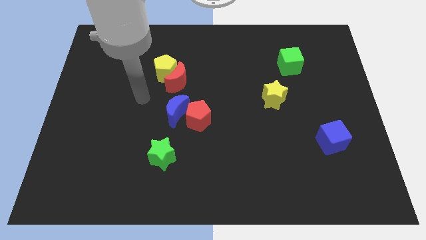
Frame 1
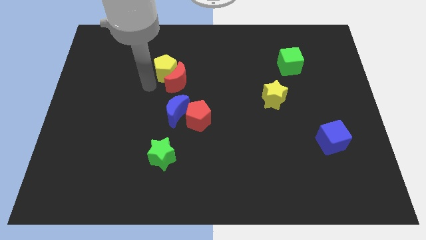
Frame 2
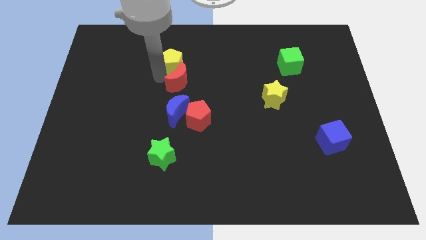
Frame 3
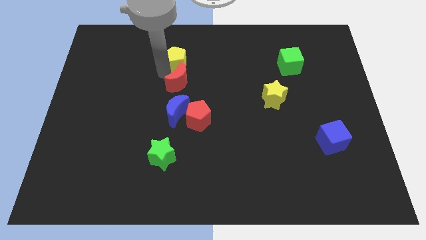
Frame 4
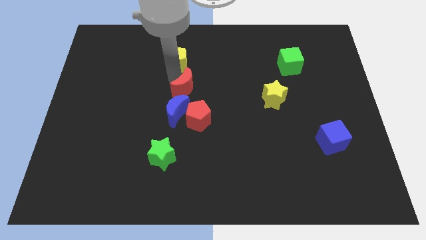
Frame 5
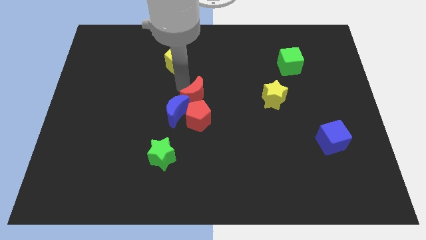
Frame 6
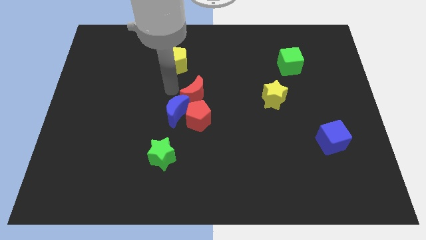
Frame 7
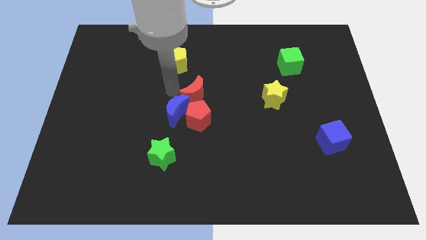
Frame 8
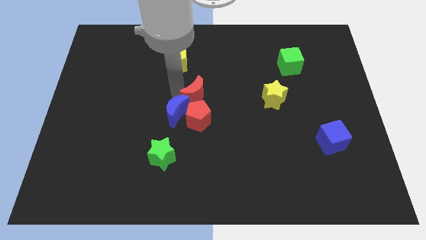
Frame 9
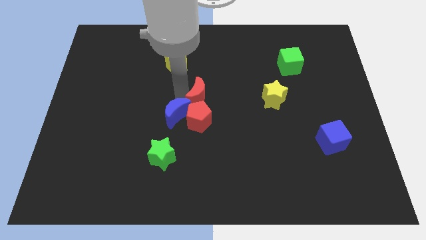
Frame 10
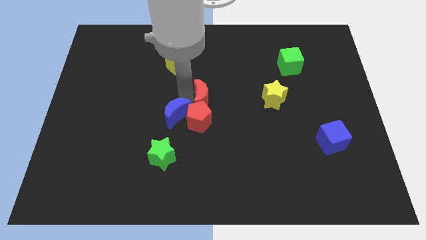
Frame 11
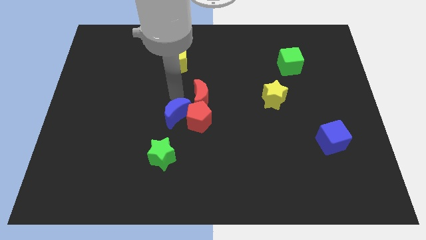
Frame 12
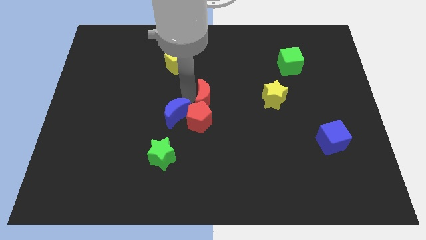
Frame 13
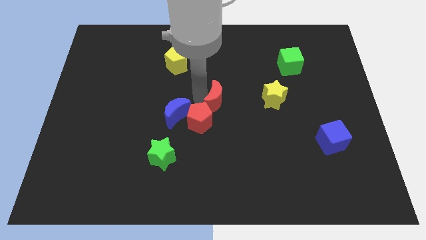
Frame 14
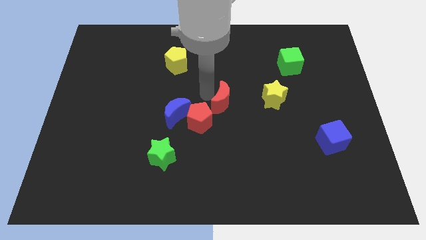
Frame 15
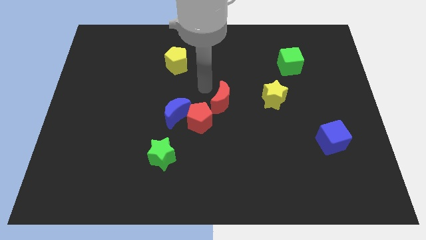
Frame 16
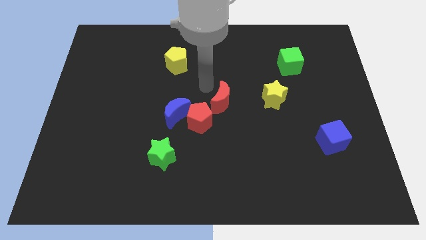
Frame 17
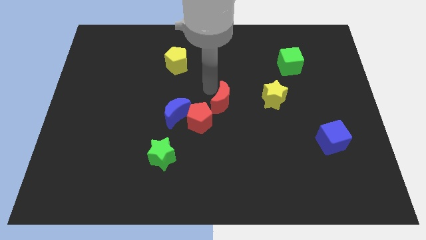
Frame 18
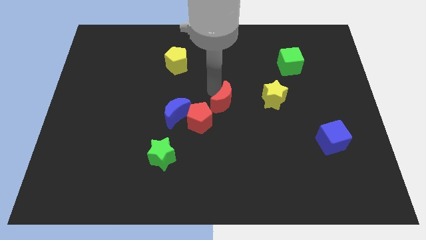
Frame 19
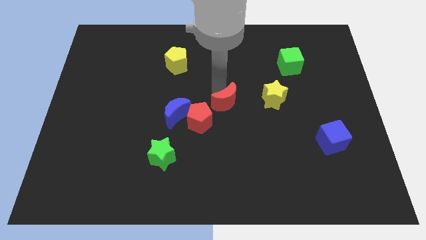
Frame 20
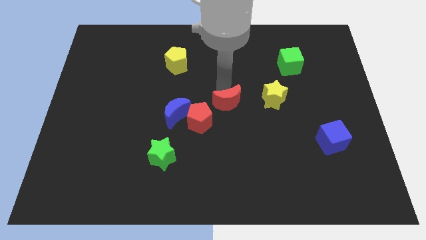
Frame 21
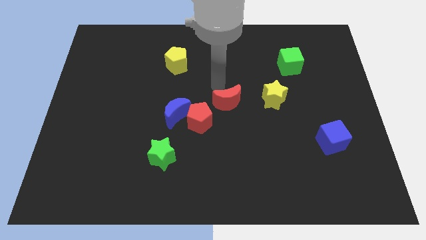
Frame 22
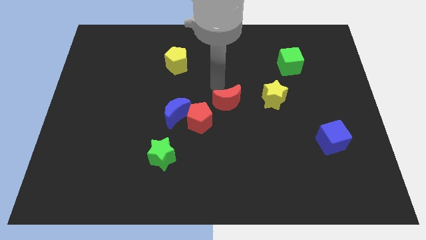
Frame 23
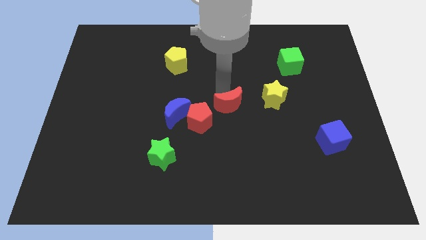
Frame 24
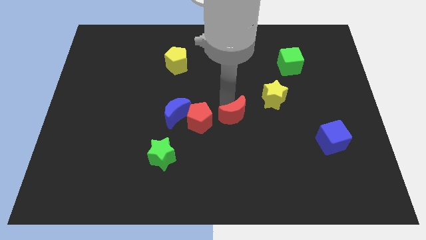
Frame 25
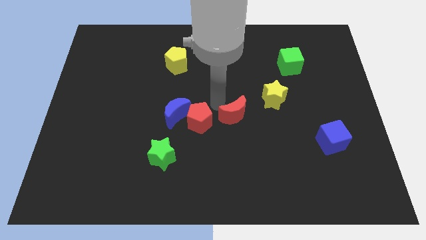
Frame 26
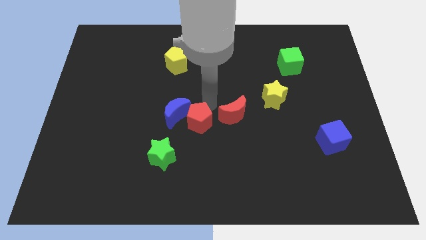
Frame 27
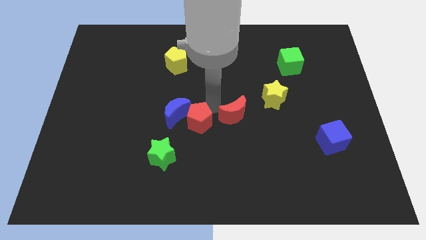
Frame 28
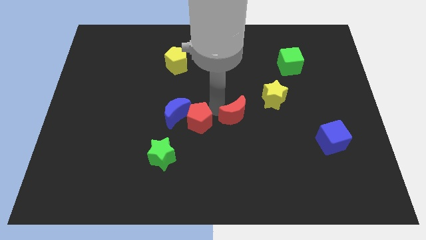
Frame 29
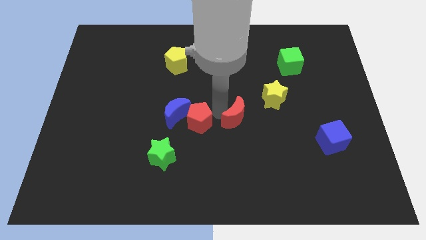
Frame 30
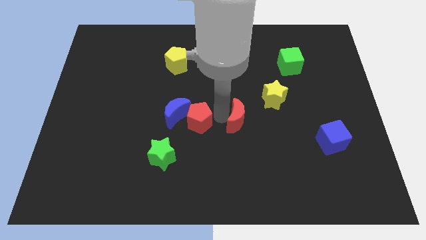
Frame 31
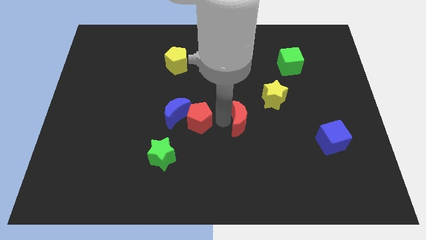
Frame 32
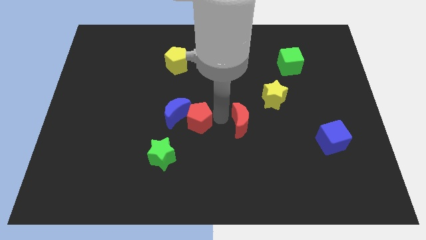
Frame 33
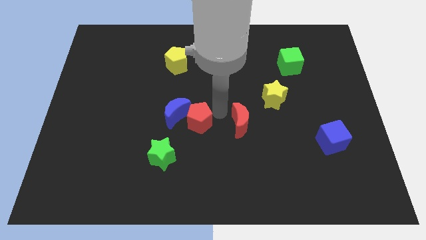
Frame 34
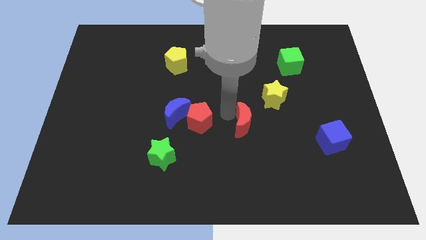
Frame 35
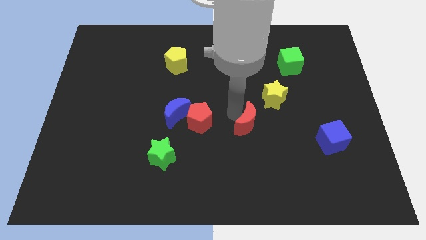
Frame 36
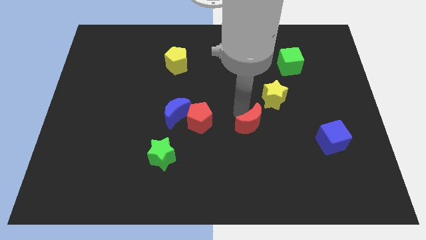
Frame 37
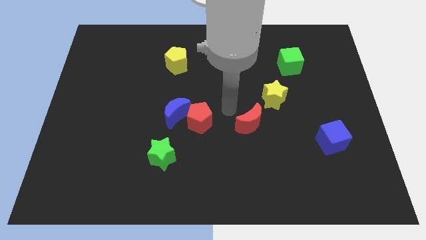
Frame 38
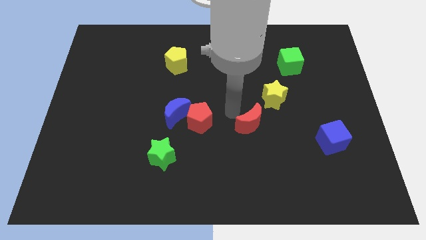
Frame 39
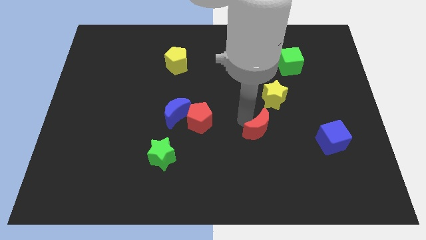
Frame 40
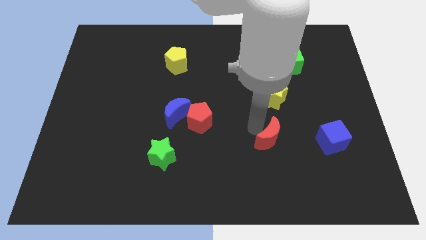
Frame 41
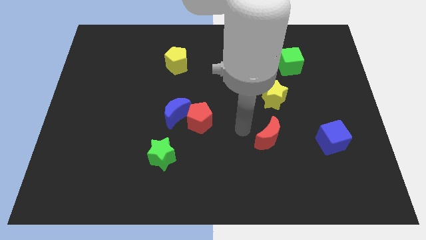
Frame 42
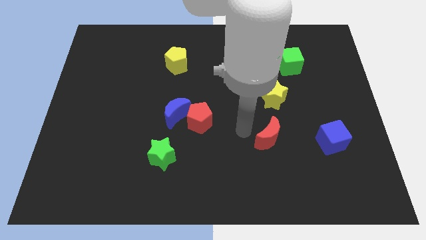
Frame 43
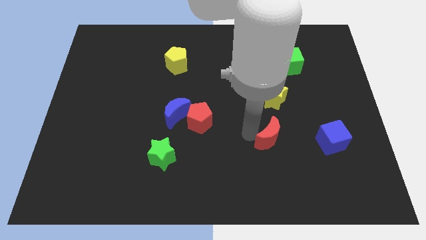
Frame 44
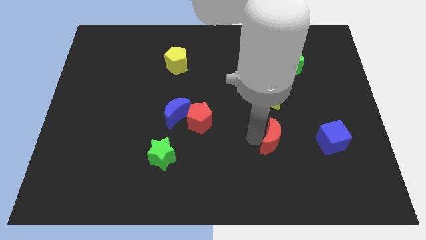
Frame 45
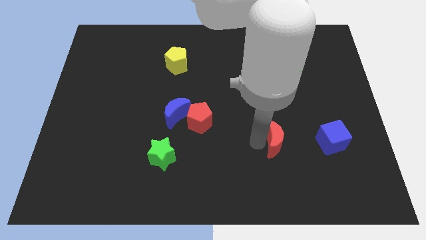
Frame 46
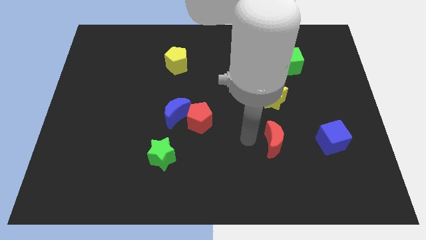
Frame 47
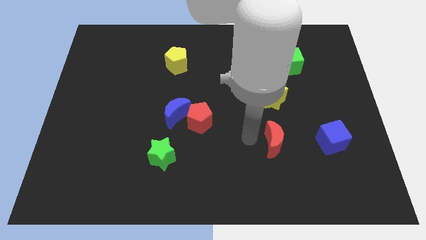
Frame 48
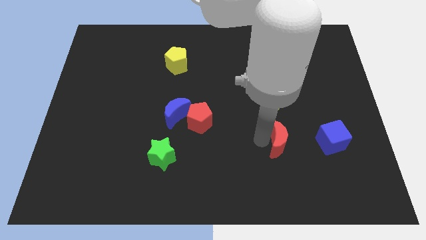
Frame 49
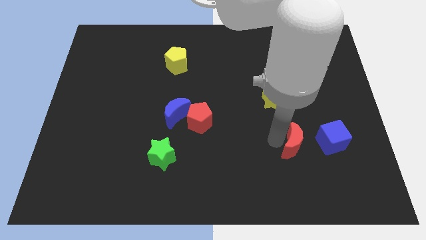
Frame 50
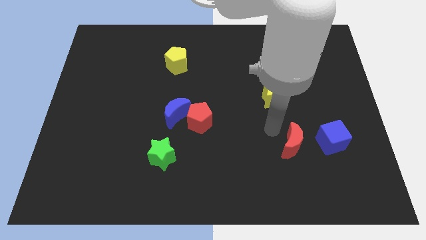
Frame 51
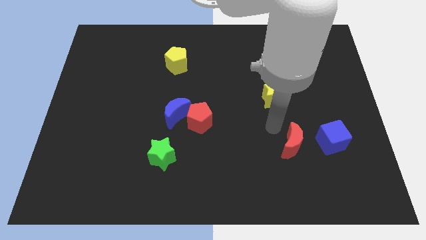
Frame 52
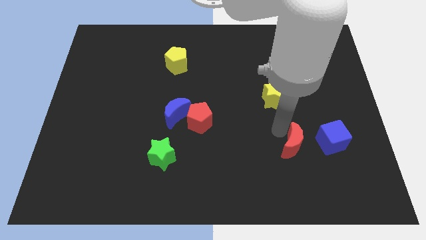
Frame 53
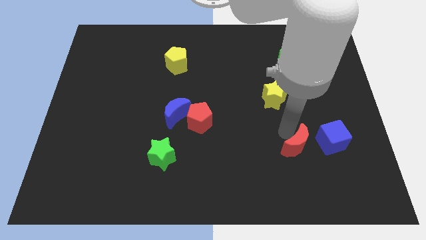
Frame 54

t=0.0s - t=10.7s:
move the red moon diagonally down and to the left of the blue cube

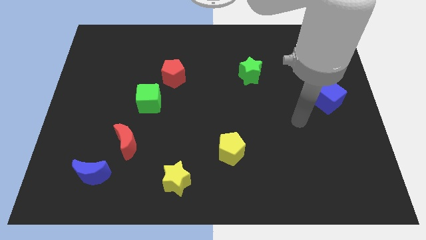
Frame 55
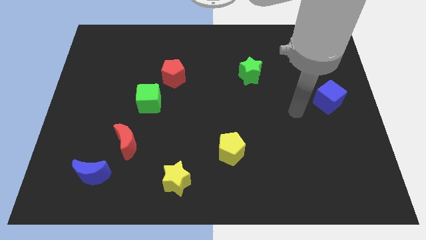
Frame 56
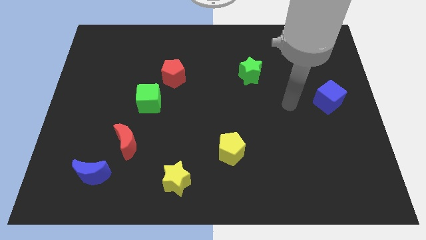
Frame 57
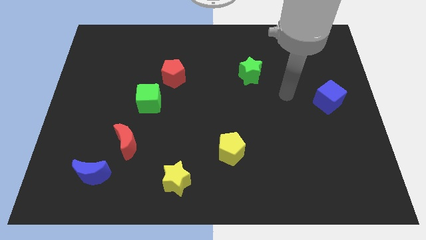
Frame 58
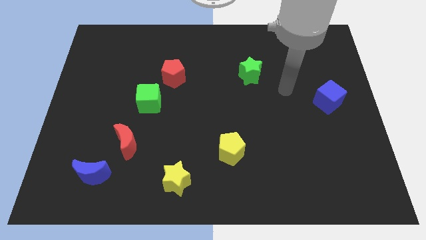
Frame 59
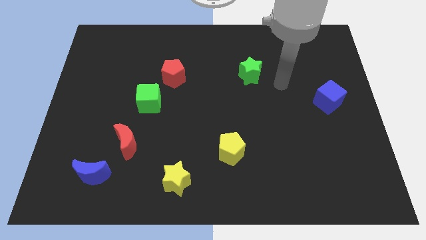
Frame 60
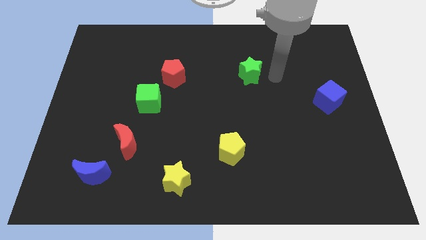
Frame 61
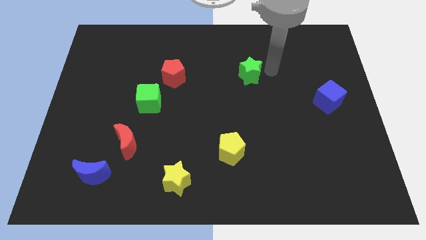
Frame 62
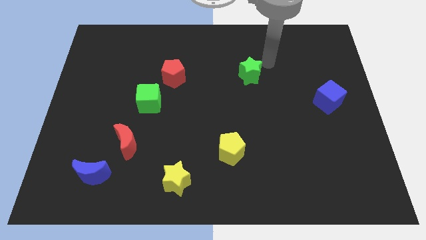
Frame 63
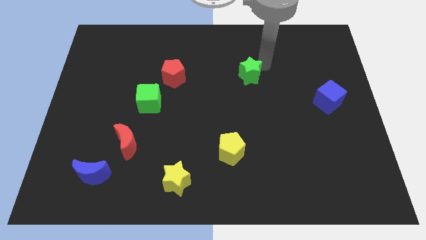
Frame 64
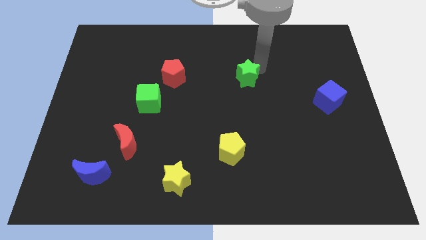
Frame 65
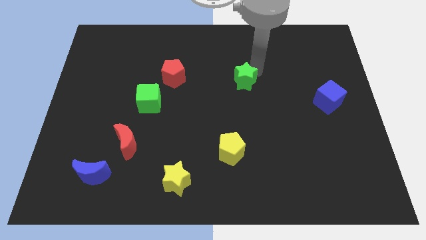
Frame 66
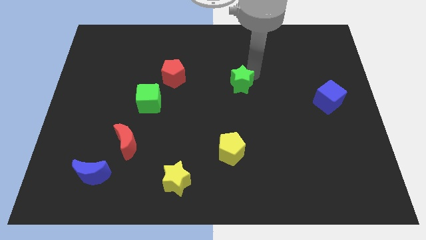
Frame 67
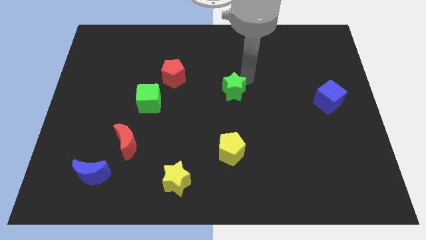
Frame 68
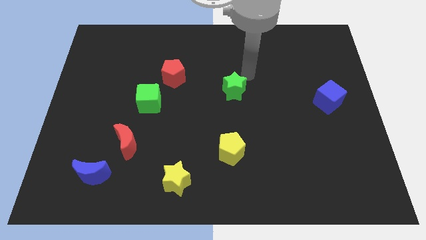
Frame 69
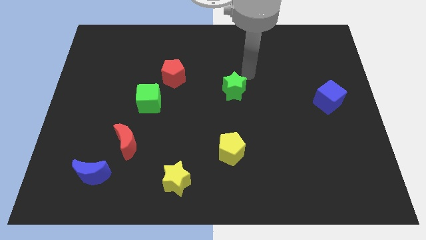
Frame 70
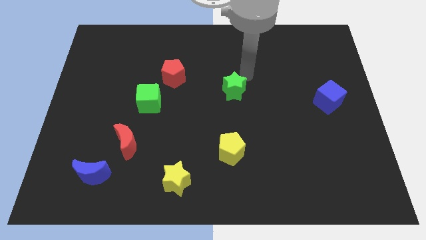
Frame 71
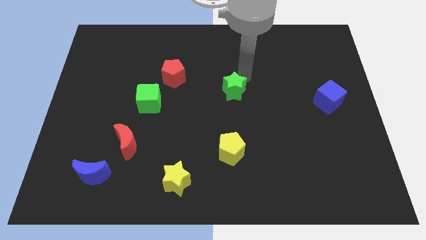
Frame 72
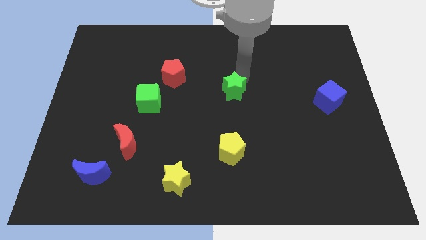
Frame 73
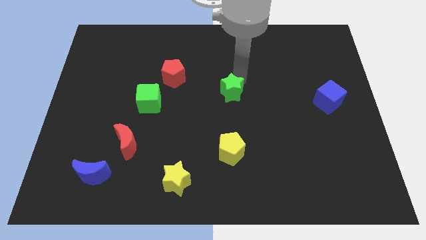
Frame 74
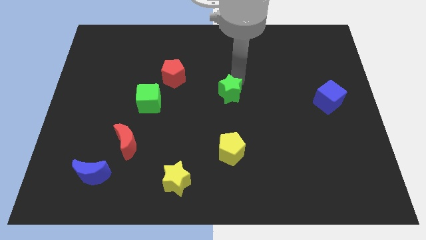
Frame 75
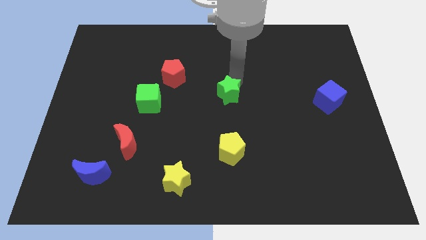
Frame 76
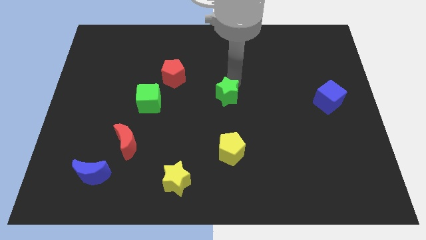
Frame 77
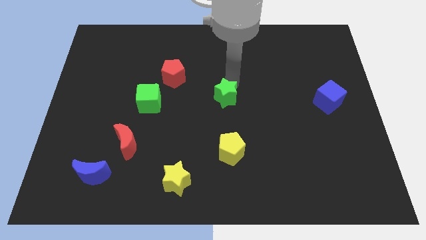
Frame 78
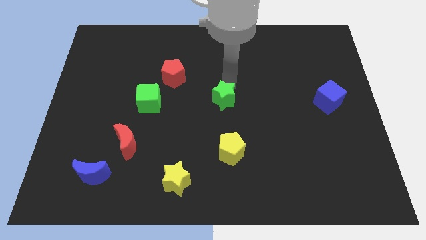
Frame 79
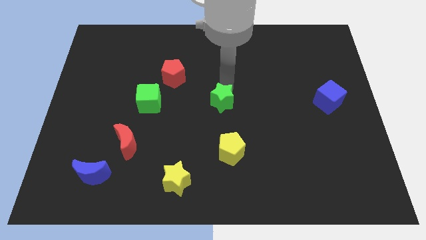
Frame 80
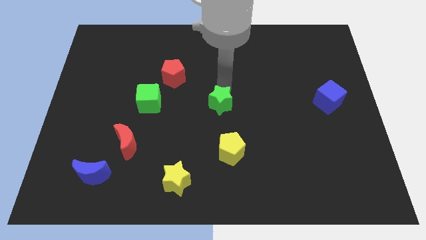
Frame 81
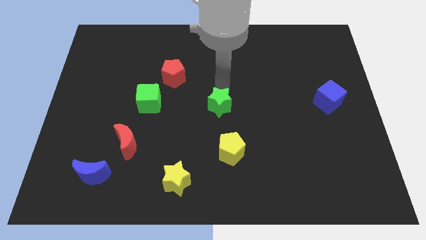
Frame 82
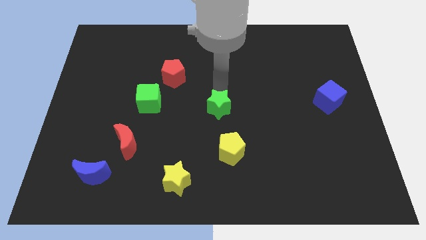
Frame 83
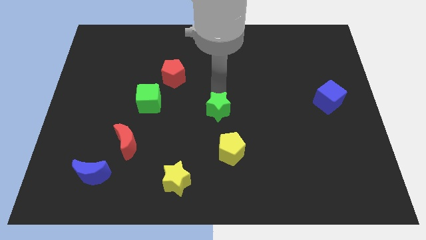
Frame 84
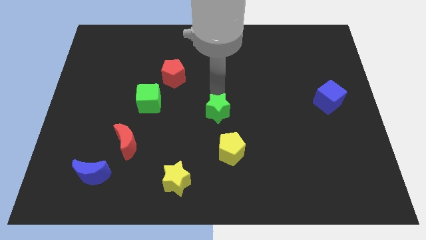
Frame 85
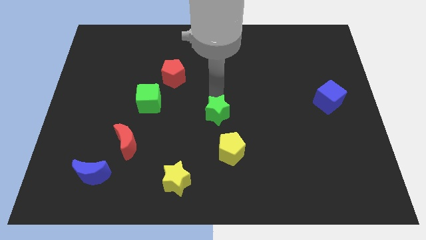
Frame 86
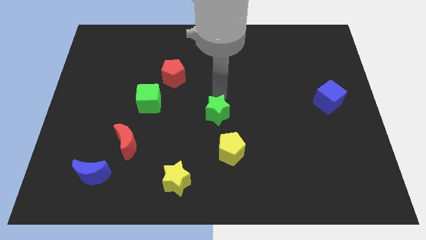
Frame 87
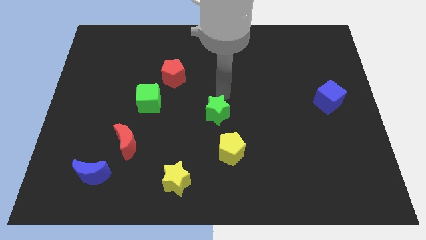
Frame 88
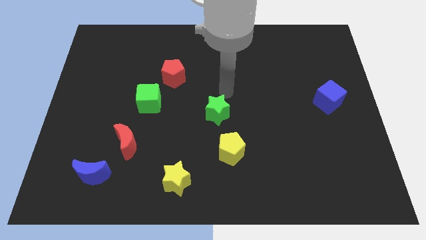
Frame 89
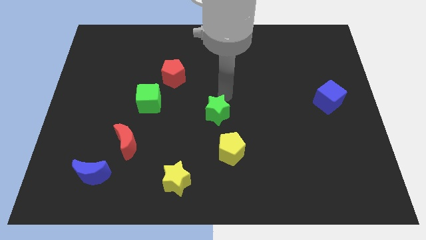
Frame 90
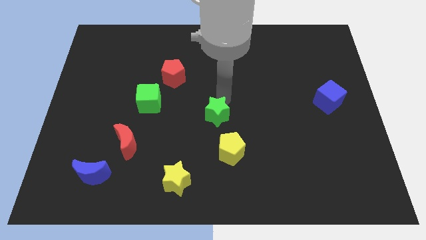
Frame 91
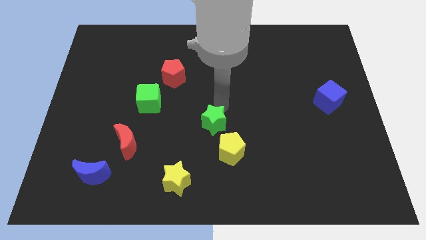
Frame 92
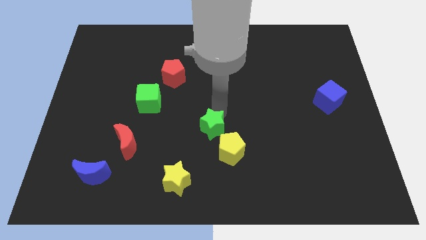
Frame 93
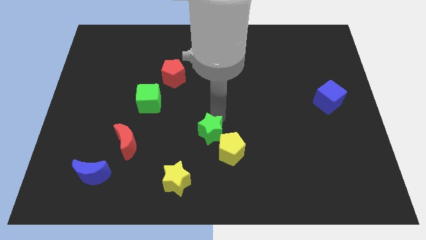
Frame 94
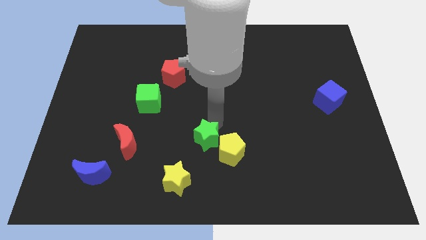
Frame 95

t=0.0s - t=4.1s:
move the green star diagonally up and to the right of the yellow star
